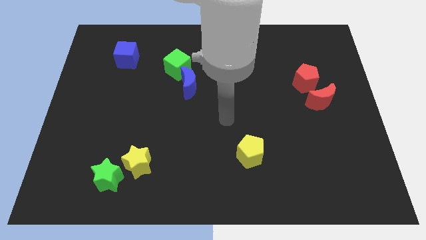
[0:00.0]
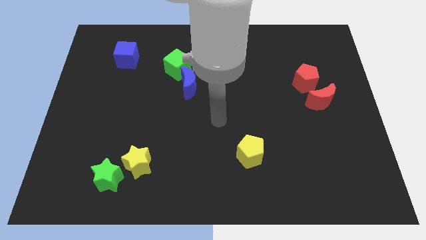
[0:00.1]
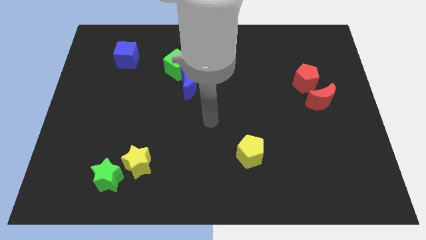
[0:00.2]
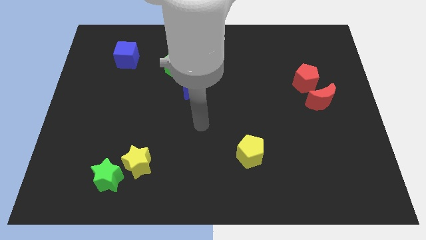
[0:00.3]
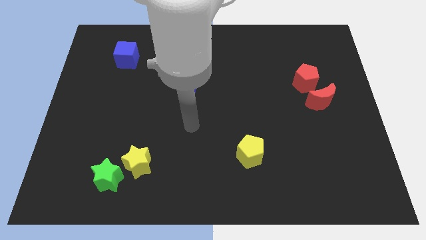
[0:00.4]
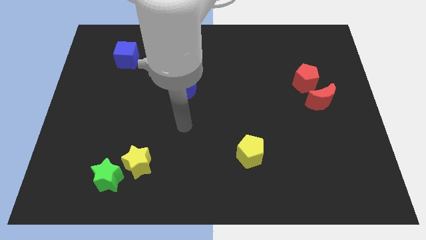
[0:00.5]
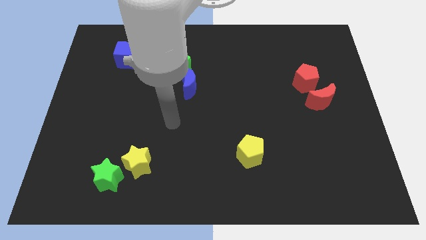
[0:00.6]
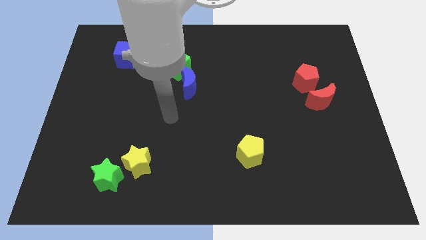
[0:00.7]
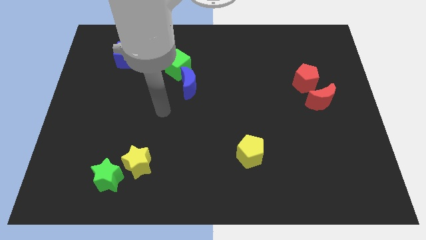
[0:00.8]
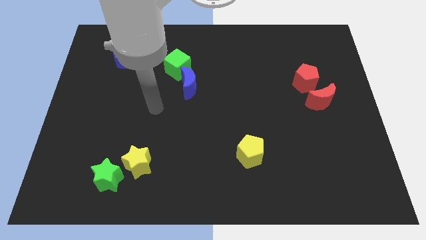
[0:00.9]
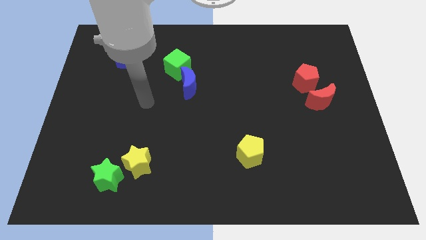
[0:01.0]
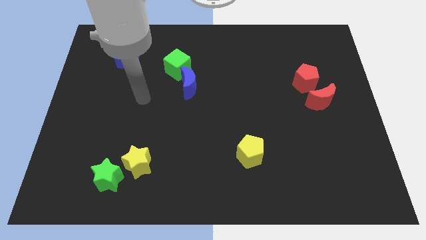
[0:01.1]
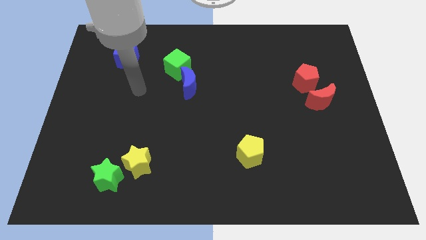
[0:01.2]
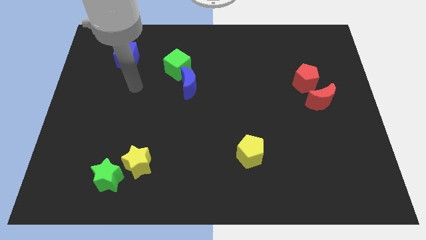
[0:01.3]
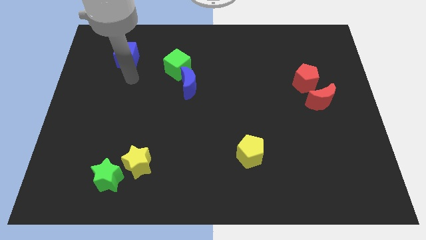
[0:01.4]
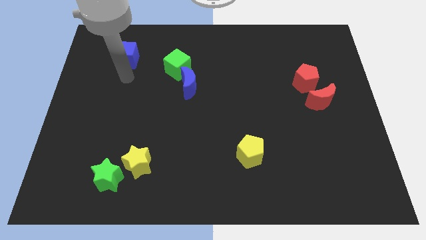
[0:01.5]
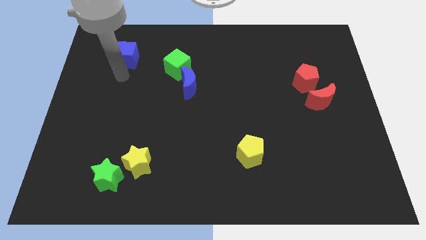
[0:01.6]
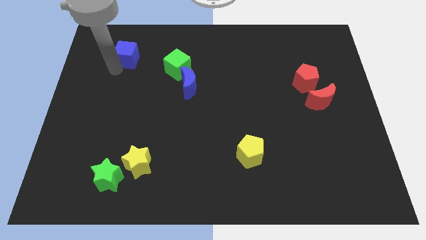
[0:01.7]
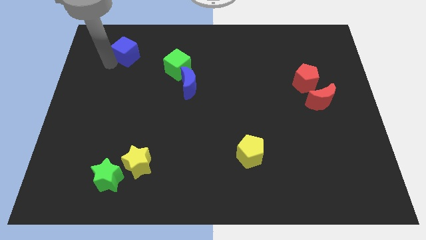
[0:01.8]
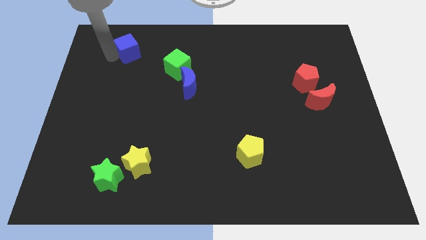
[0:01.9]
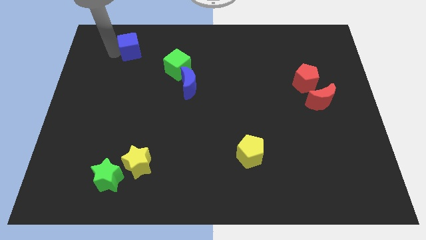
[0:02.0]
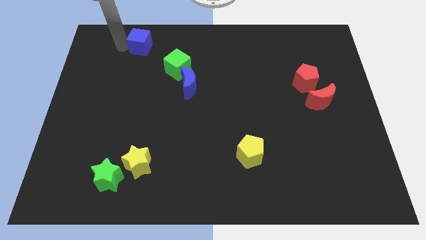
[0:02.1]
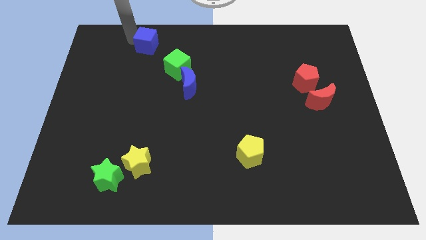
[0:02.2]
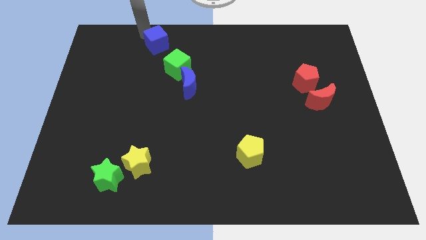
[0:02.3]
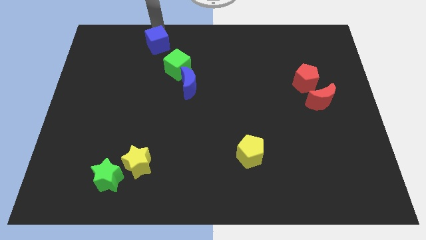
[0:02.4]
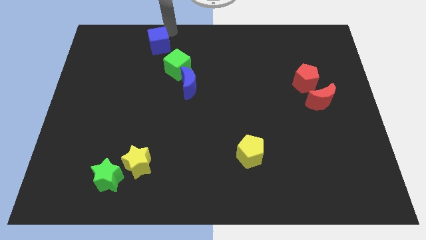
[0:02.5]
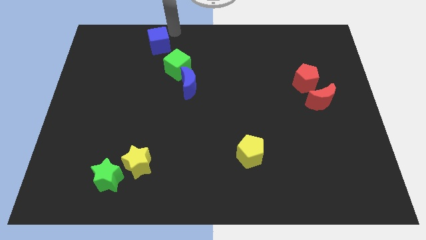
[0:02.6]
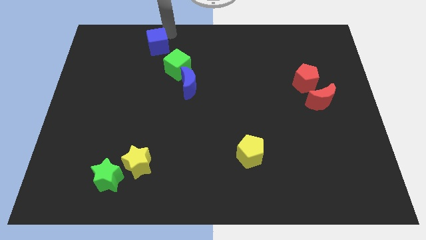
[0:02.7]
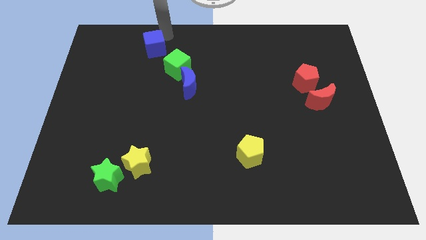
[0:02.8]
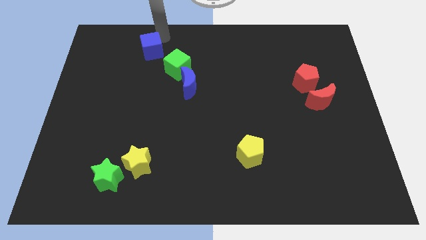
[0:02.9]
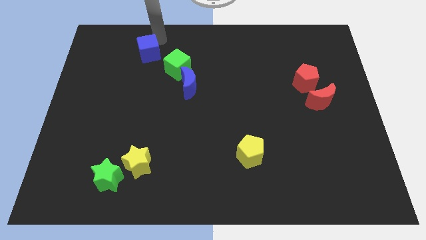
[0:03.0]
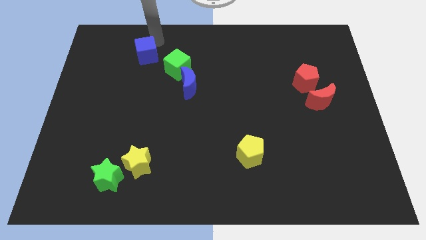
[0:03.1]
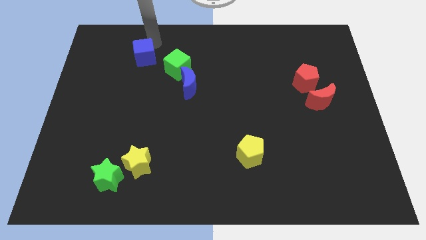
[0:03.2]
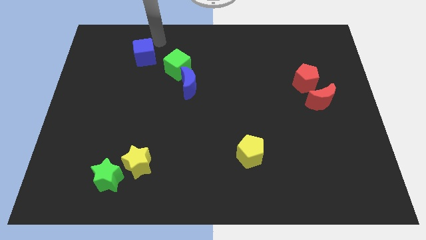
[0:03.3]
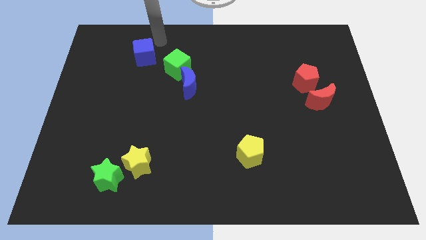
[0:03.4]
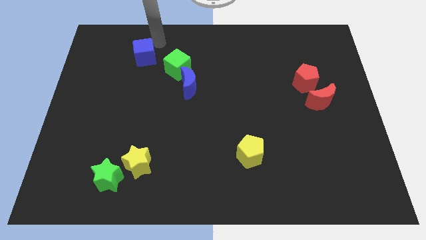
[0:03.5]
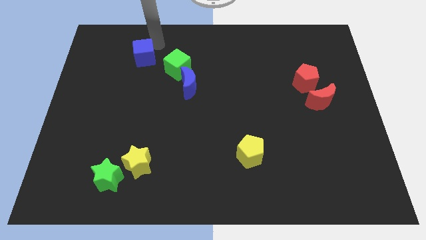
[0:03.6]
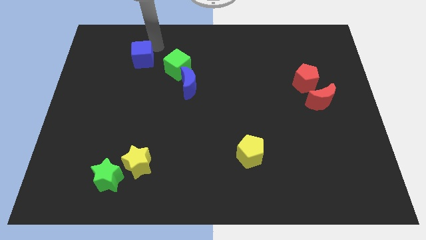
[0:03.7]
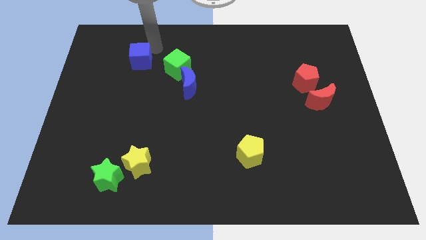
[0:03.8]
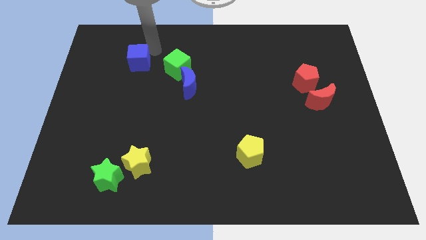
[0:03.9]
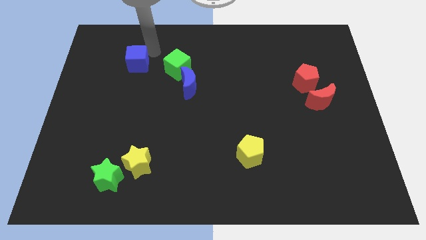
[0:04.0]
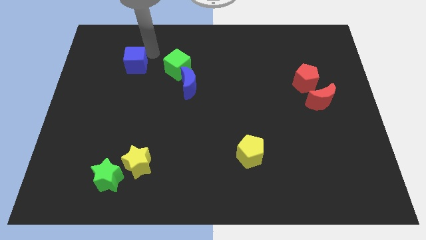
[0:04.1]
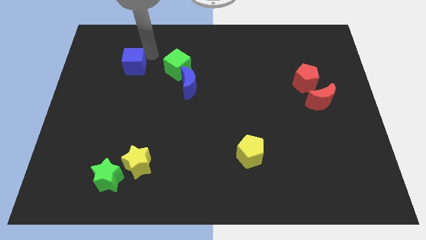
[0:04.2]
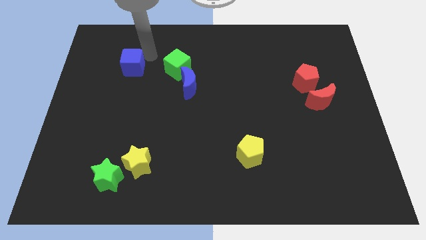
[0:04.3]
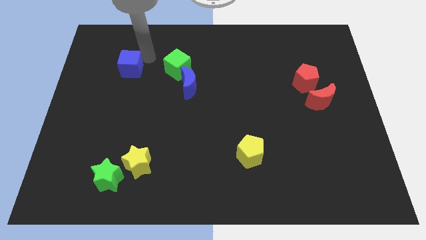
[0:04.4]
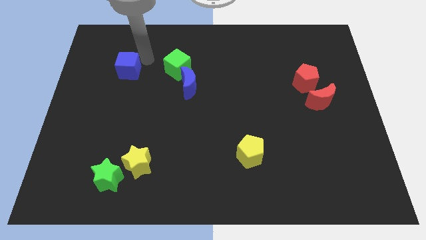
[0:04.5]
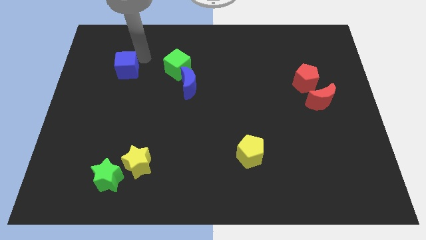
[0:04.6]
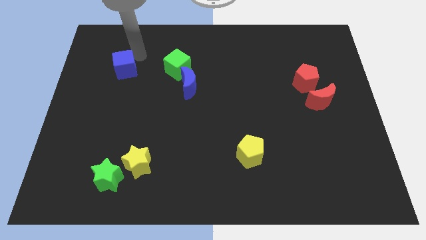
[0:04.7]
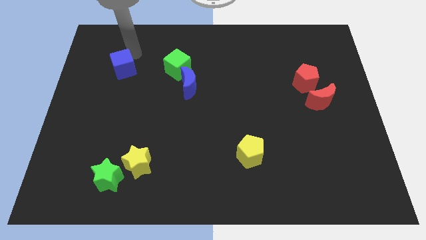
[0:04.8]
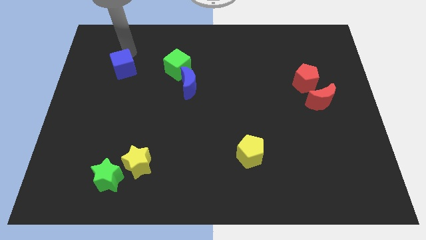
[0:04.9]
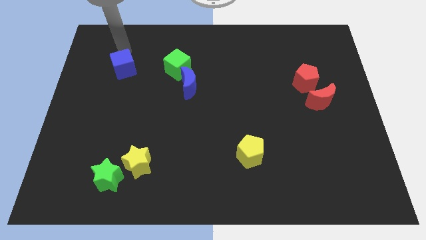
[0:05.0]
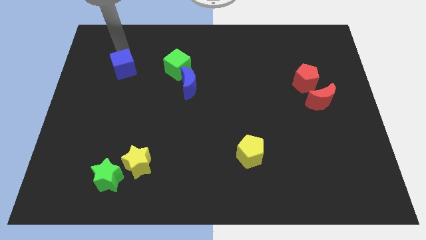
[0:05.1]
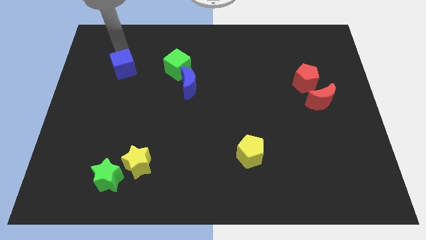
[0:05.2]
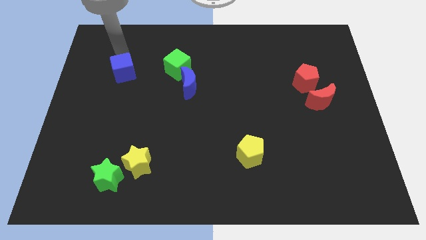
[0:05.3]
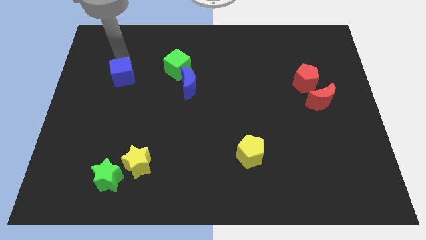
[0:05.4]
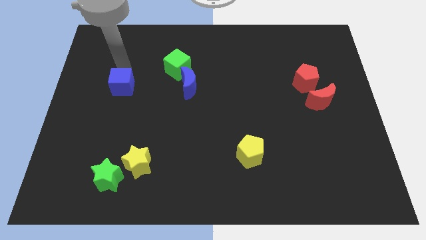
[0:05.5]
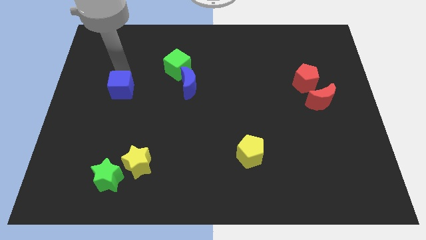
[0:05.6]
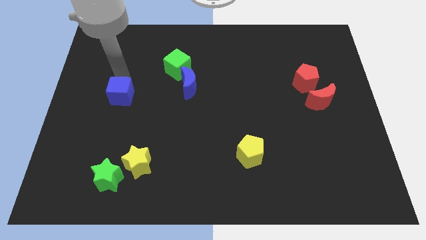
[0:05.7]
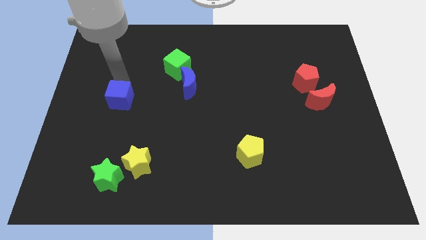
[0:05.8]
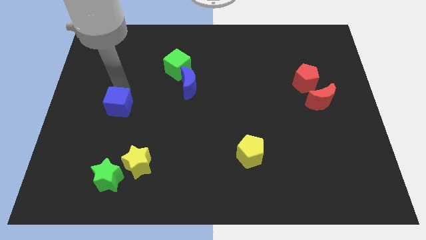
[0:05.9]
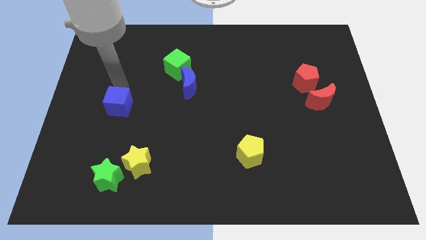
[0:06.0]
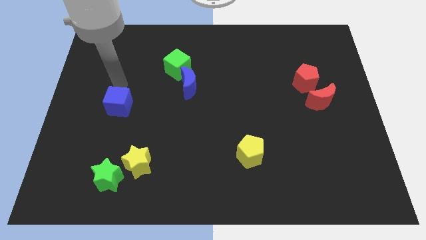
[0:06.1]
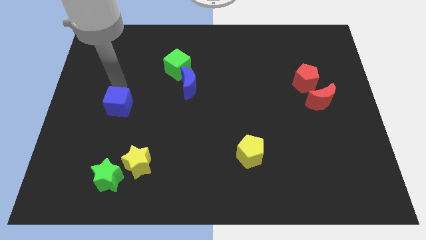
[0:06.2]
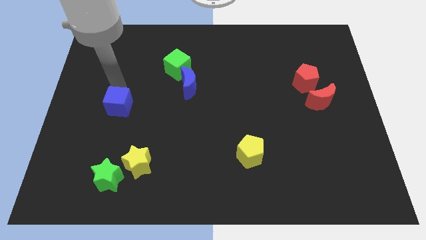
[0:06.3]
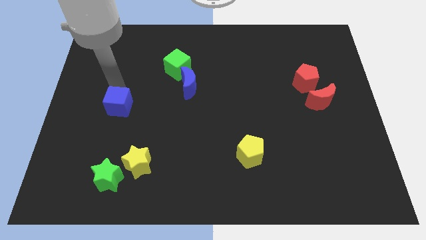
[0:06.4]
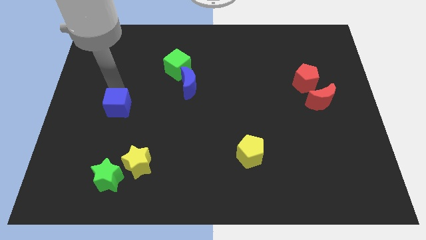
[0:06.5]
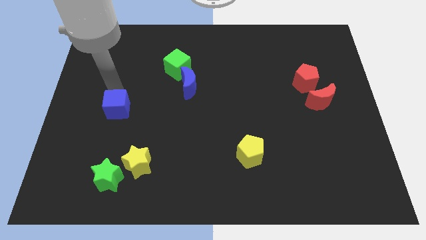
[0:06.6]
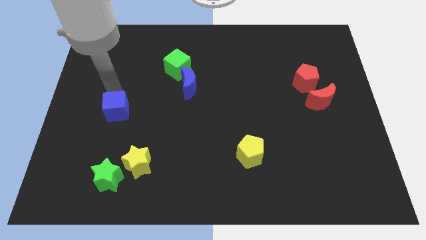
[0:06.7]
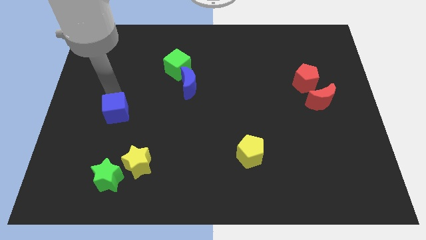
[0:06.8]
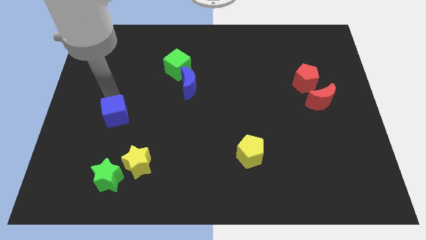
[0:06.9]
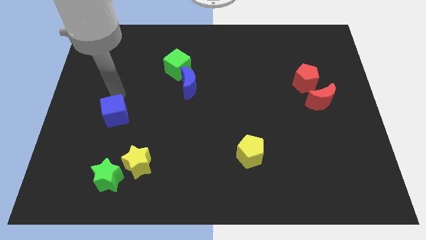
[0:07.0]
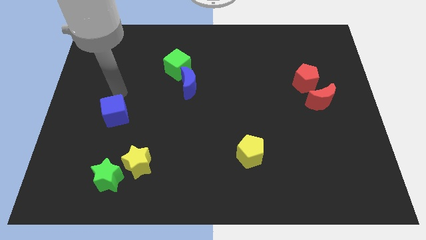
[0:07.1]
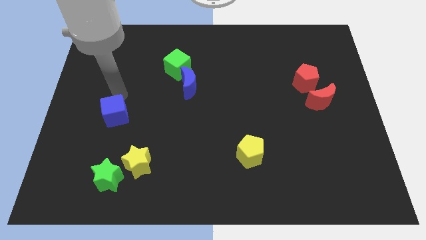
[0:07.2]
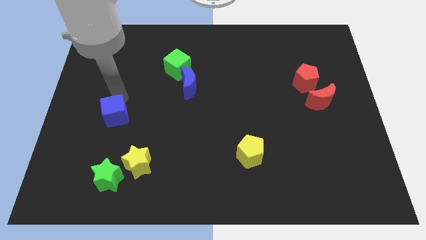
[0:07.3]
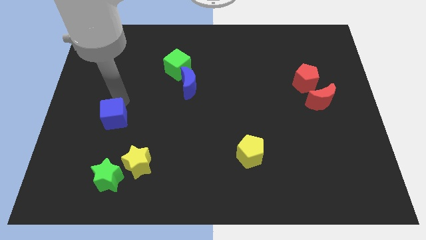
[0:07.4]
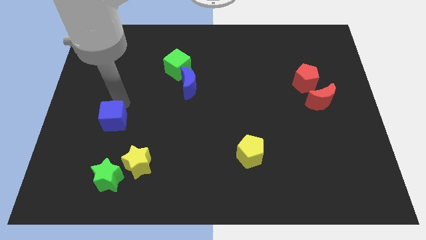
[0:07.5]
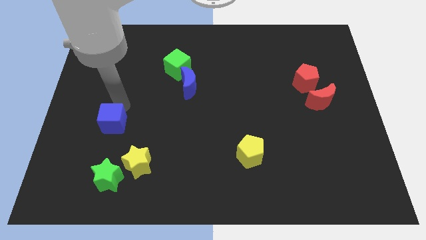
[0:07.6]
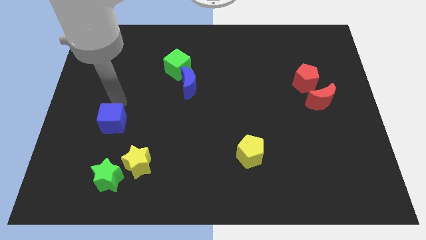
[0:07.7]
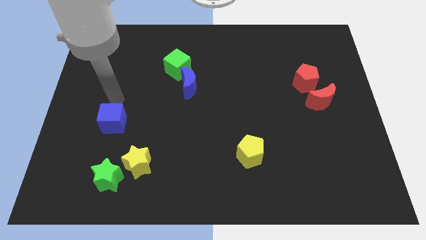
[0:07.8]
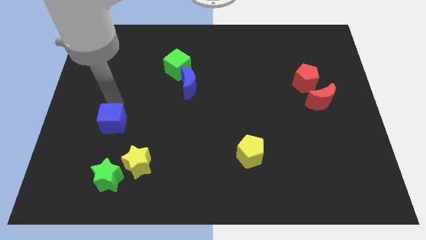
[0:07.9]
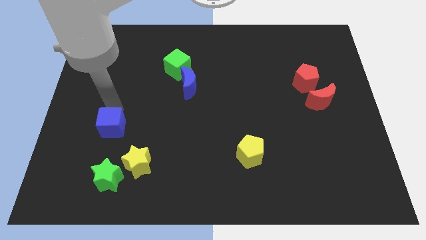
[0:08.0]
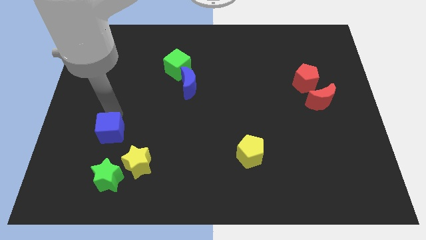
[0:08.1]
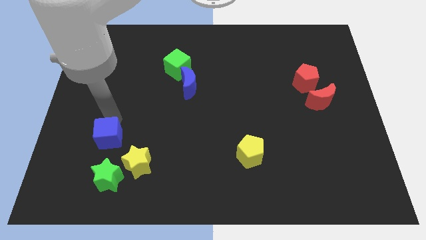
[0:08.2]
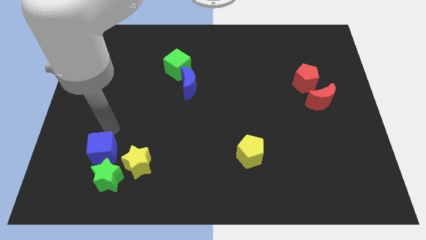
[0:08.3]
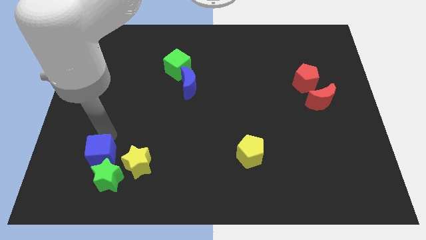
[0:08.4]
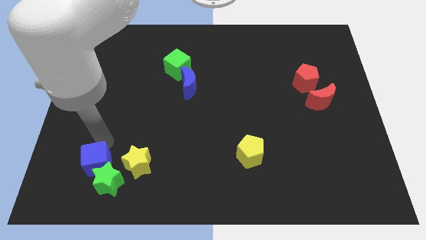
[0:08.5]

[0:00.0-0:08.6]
move the blue cube towards the green star
